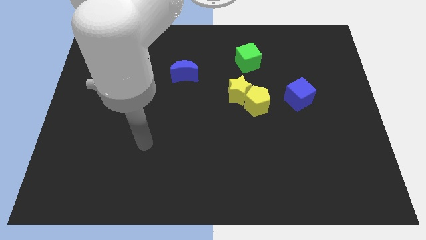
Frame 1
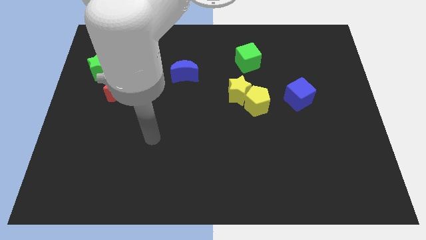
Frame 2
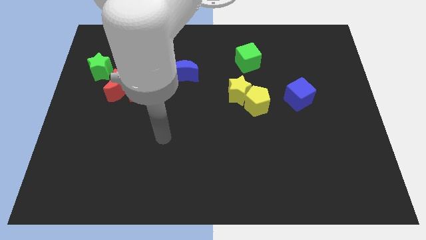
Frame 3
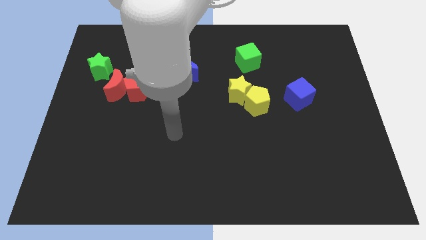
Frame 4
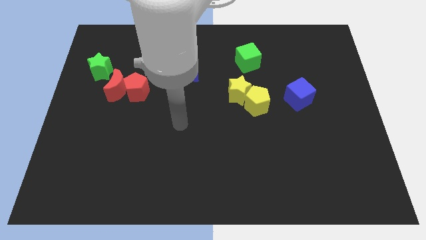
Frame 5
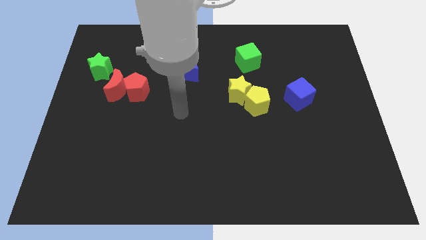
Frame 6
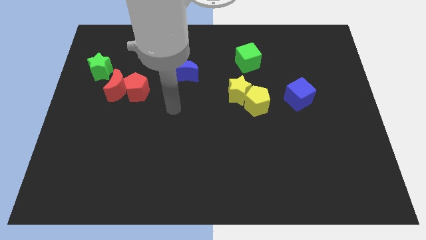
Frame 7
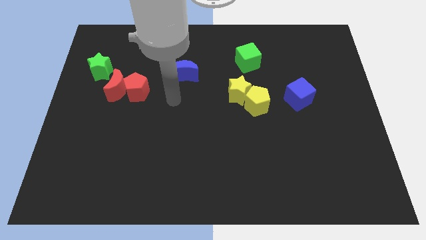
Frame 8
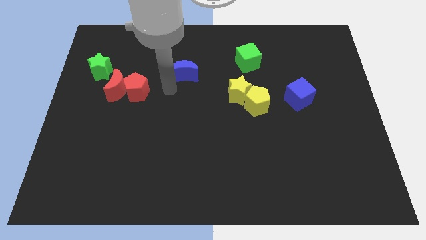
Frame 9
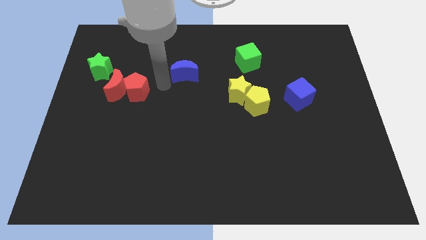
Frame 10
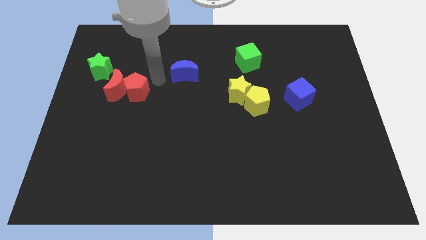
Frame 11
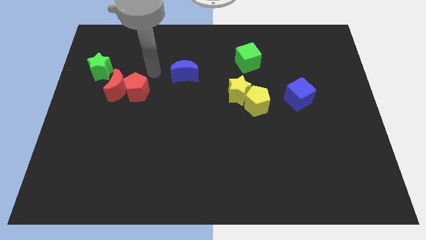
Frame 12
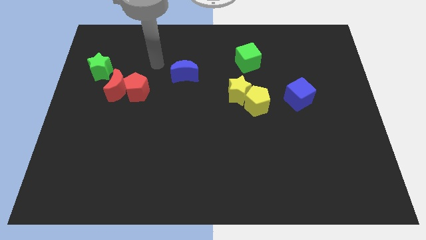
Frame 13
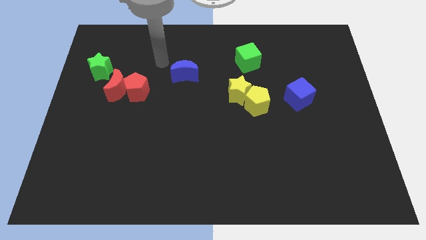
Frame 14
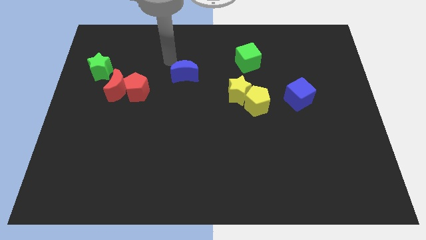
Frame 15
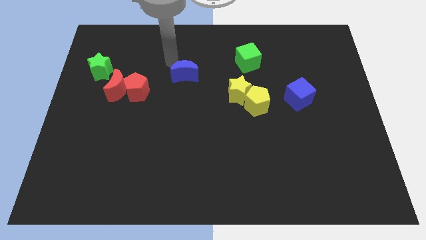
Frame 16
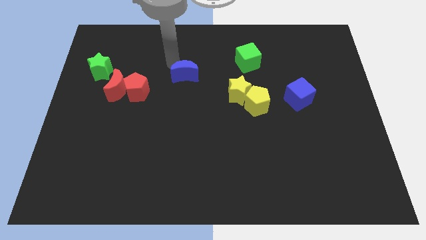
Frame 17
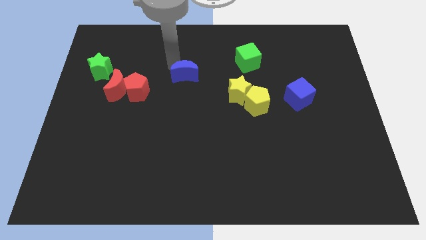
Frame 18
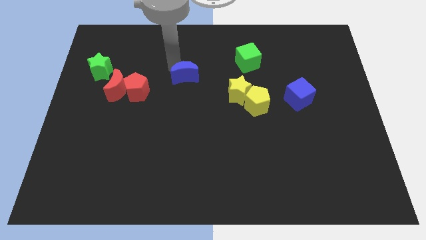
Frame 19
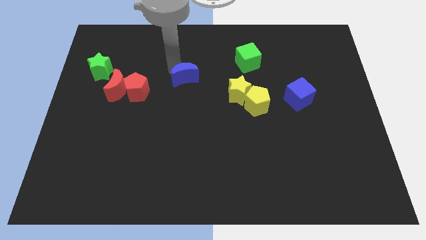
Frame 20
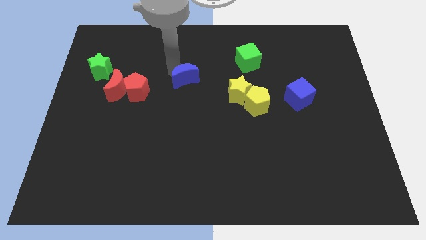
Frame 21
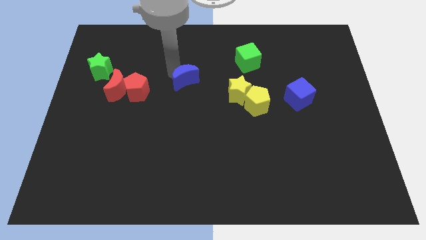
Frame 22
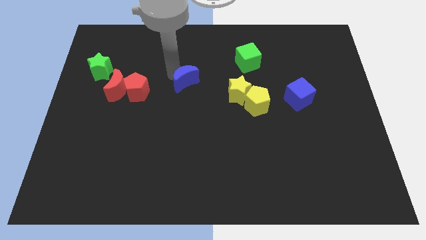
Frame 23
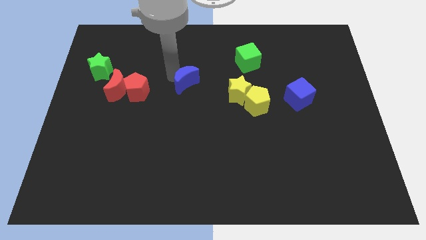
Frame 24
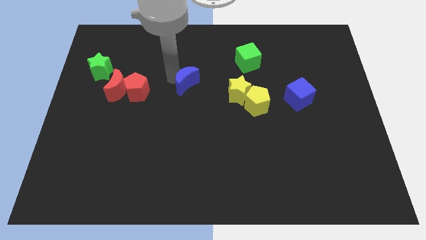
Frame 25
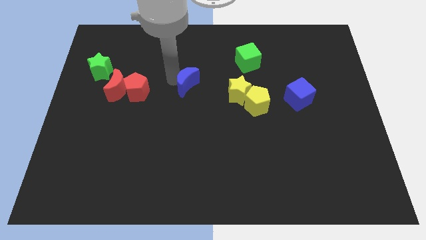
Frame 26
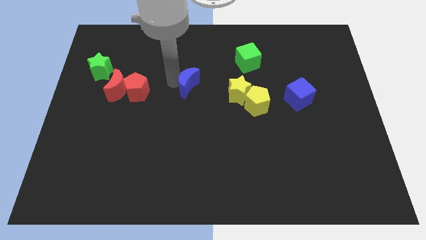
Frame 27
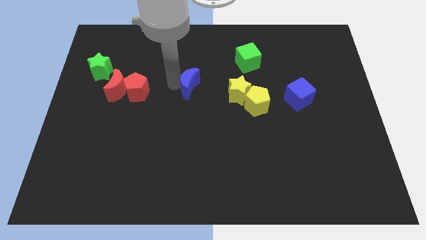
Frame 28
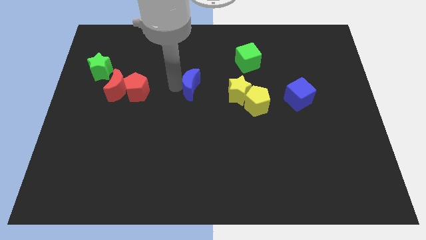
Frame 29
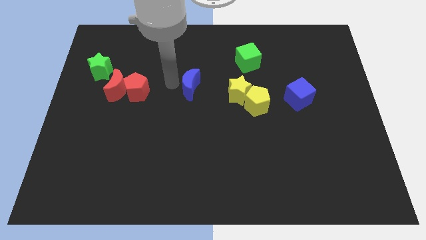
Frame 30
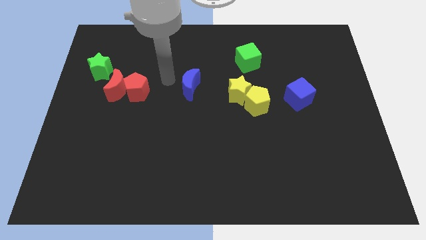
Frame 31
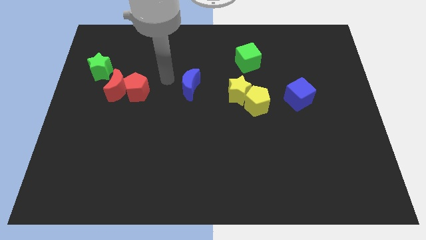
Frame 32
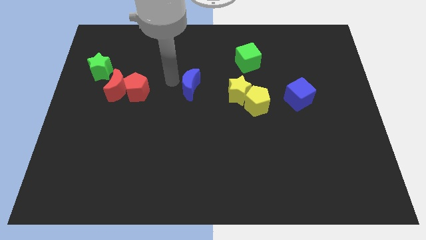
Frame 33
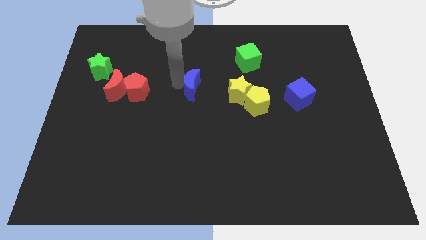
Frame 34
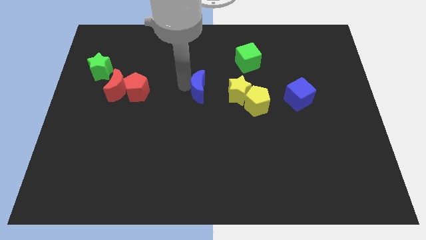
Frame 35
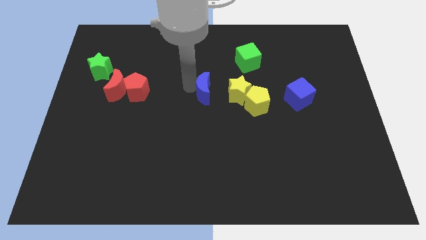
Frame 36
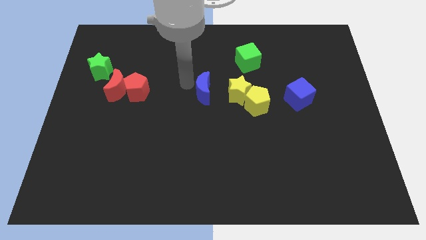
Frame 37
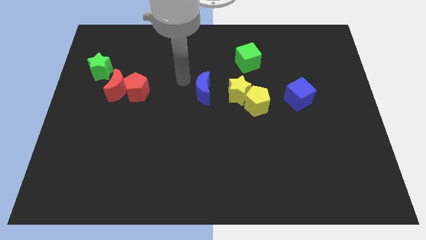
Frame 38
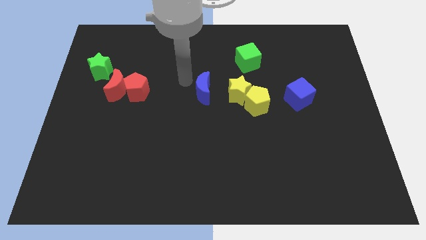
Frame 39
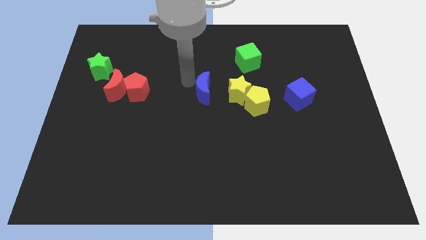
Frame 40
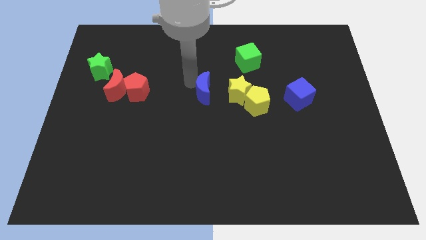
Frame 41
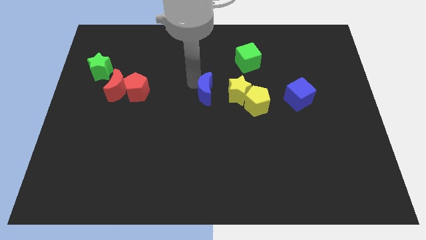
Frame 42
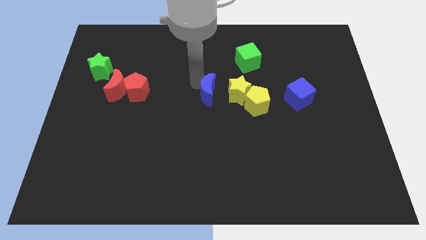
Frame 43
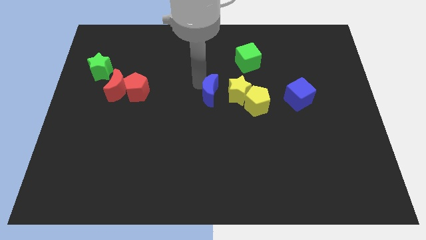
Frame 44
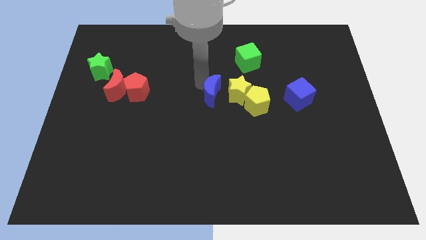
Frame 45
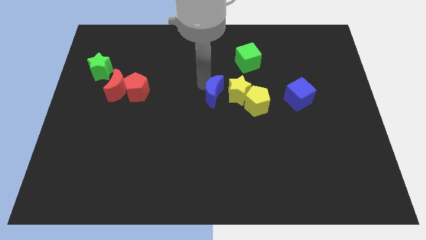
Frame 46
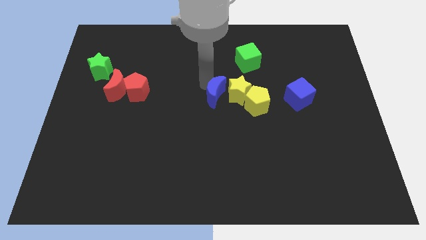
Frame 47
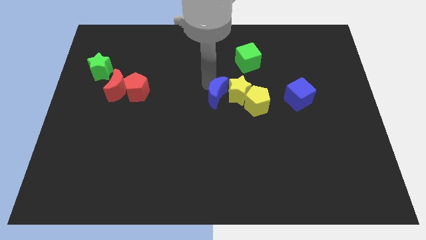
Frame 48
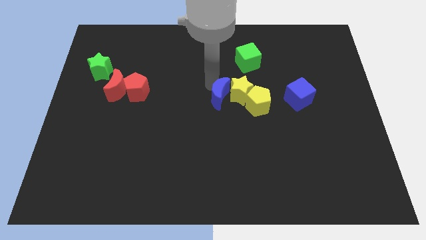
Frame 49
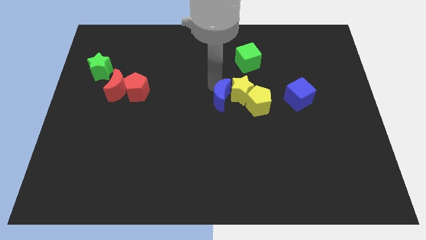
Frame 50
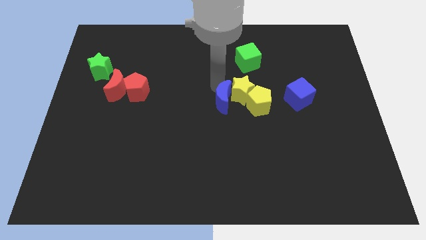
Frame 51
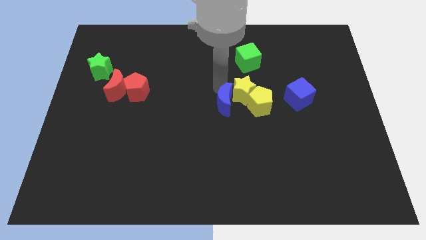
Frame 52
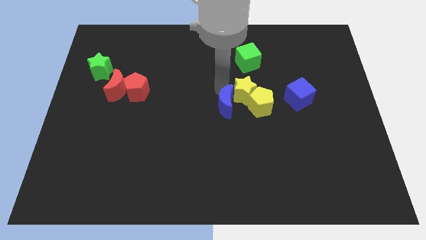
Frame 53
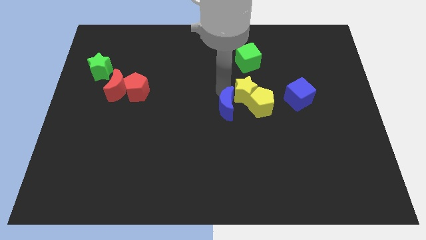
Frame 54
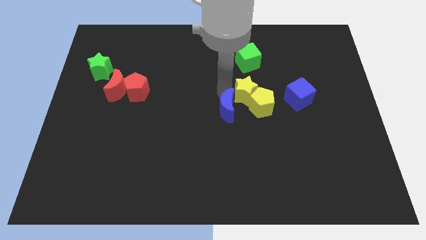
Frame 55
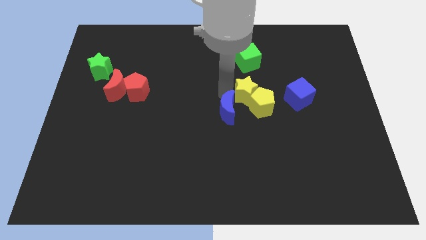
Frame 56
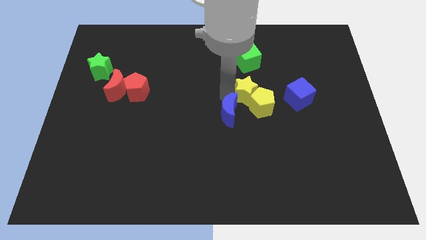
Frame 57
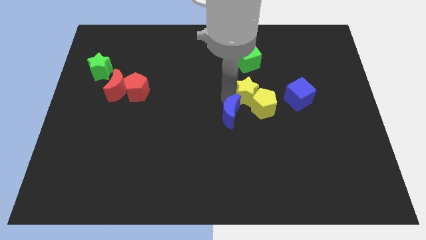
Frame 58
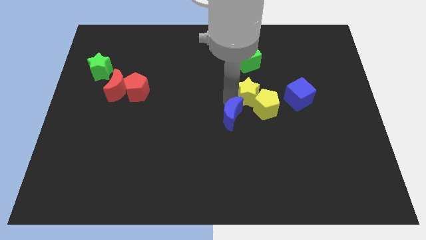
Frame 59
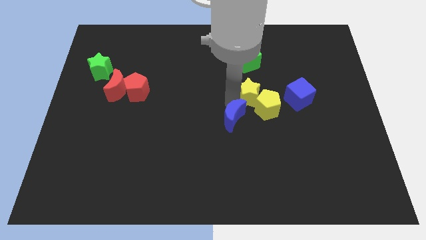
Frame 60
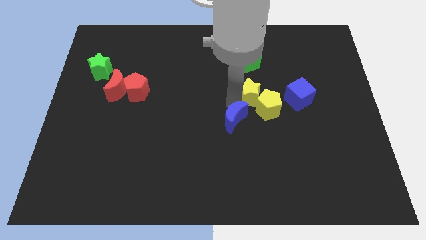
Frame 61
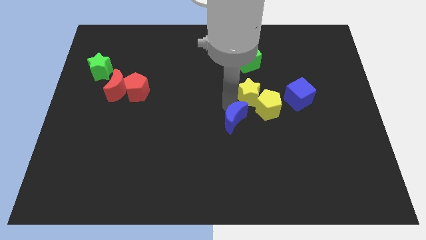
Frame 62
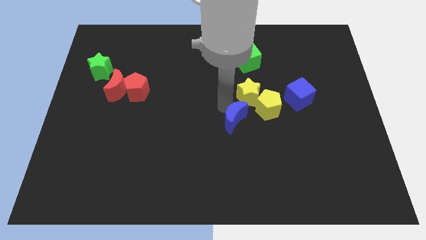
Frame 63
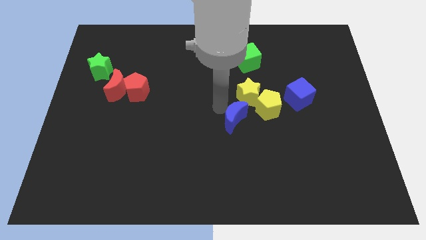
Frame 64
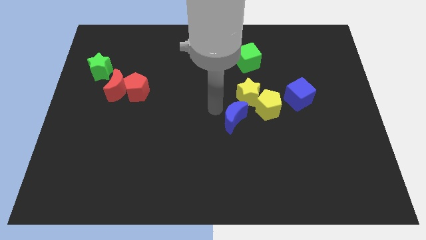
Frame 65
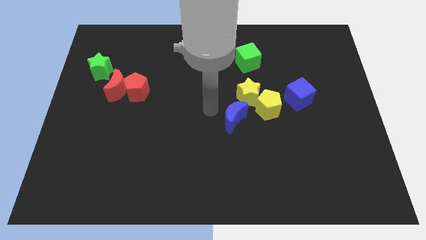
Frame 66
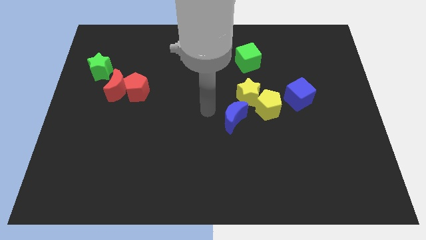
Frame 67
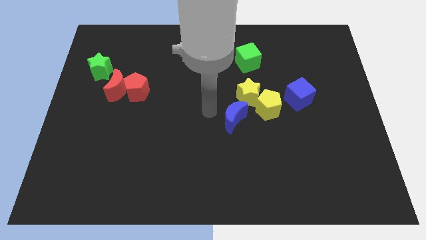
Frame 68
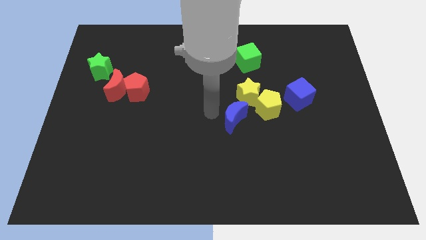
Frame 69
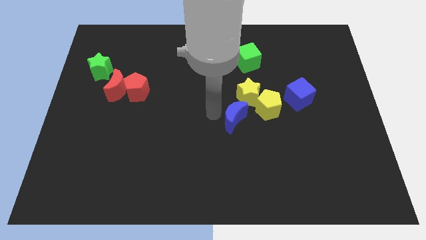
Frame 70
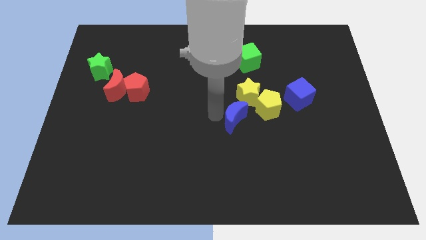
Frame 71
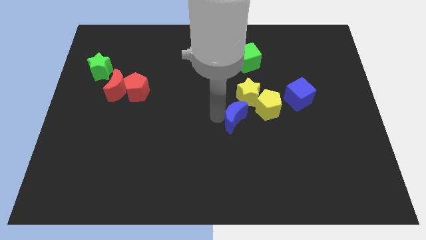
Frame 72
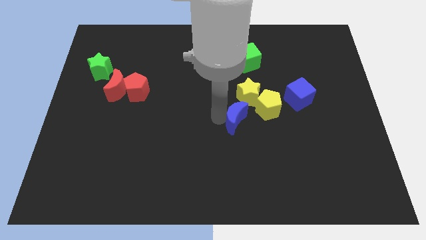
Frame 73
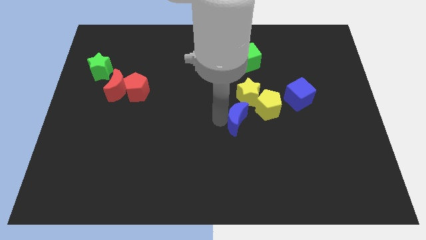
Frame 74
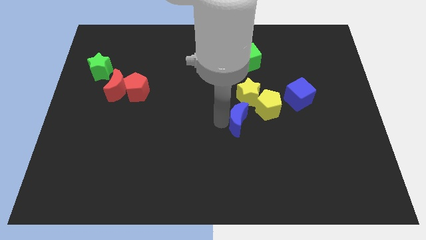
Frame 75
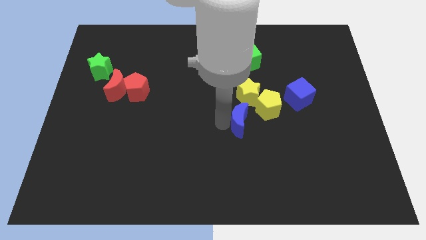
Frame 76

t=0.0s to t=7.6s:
push the blue moon down and right diagonally

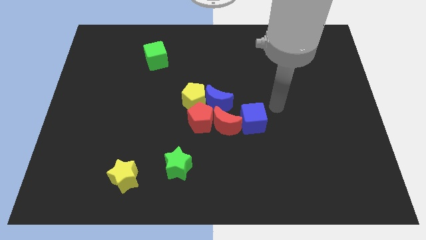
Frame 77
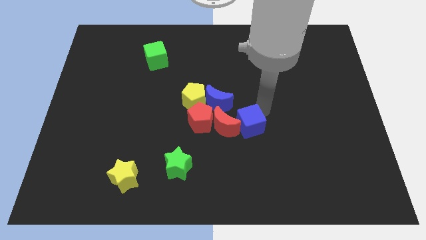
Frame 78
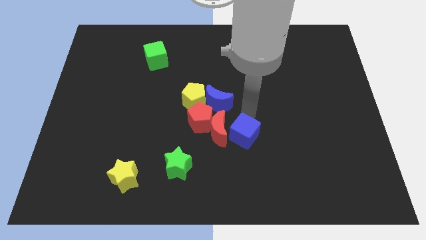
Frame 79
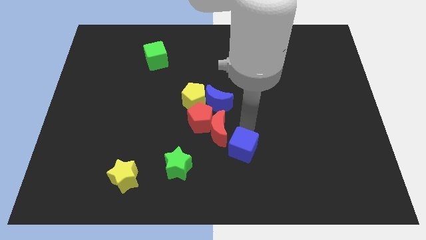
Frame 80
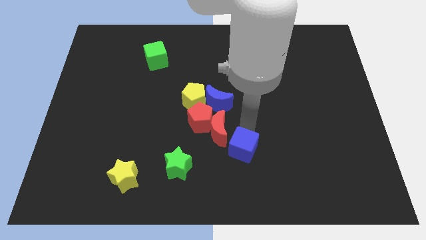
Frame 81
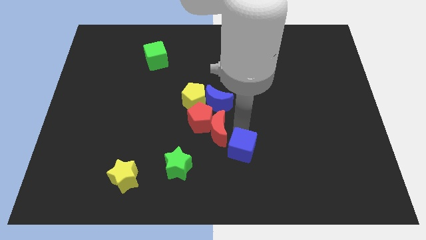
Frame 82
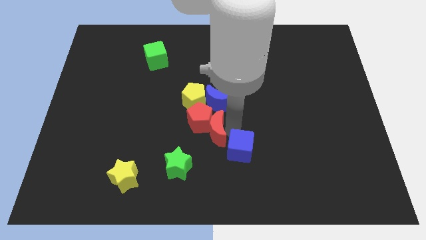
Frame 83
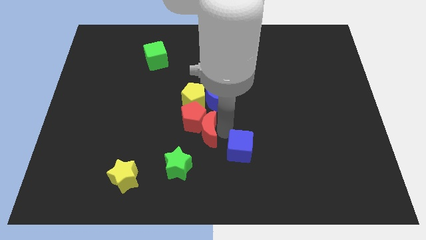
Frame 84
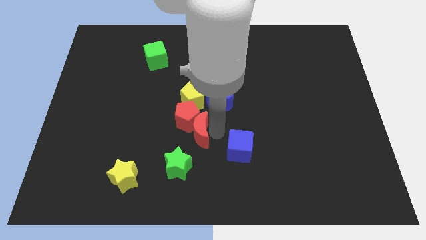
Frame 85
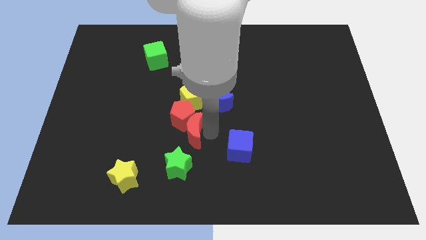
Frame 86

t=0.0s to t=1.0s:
slide the red moon to the left somewhat
